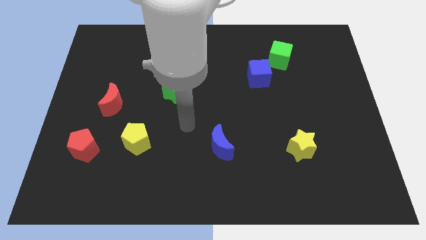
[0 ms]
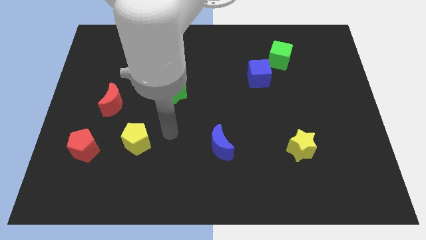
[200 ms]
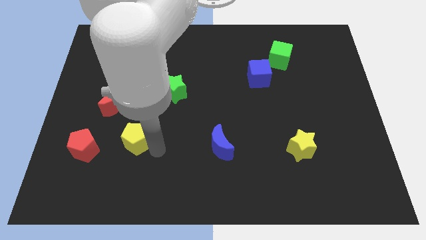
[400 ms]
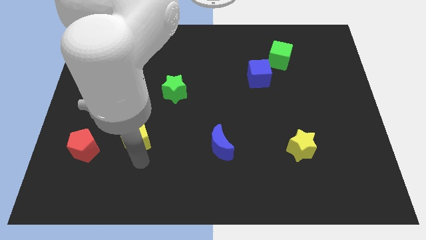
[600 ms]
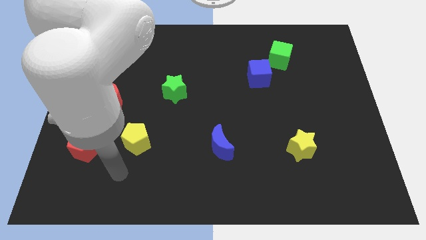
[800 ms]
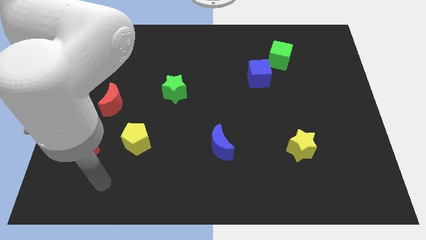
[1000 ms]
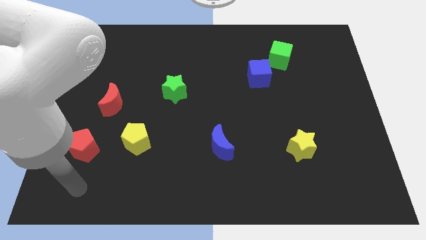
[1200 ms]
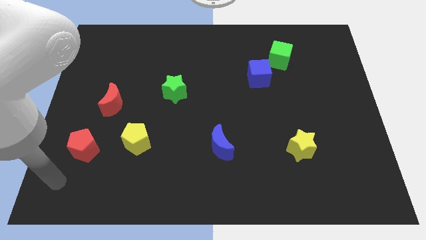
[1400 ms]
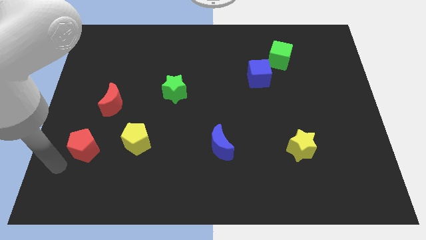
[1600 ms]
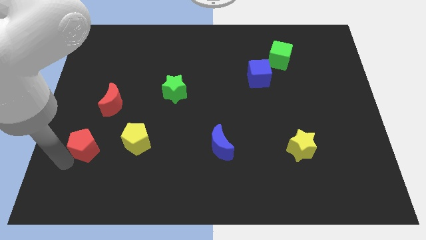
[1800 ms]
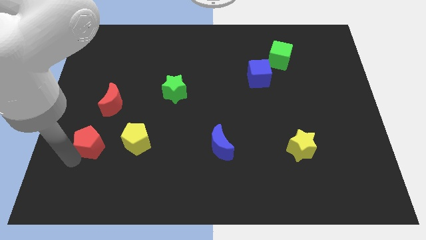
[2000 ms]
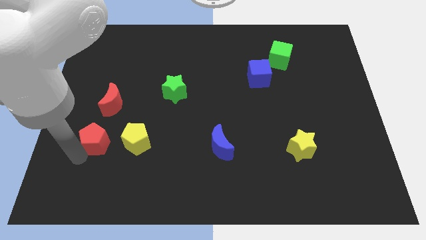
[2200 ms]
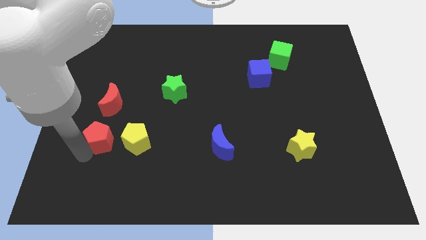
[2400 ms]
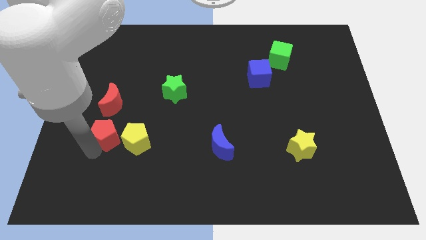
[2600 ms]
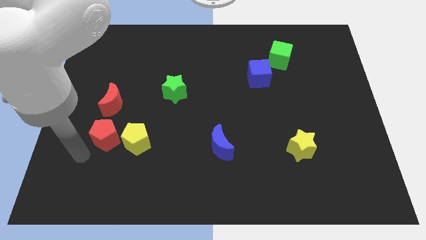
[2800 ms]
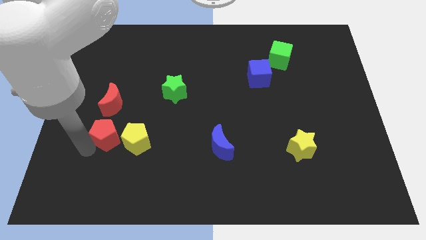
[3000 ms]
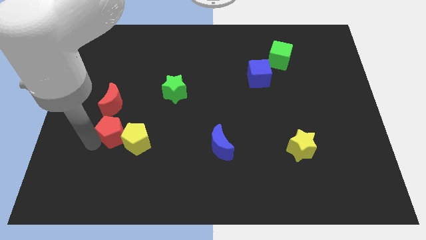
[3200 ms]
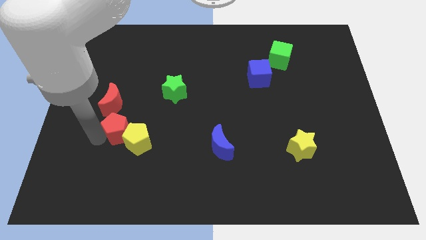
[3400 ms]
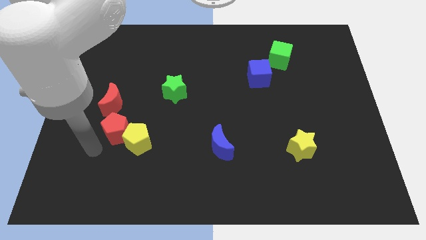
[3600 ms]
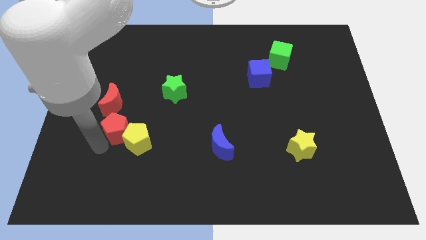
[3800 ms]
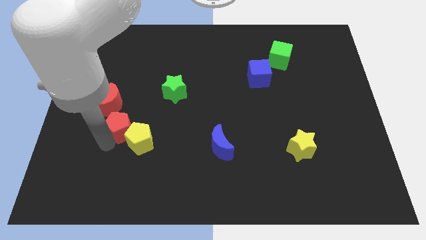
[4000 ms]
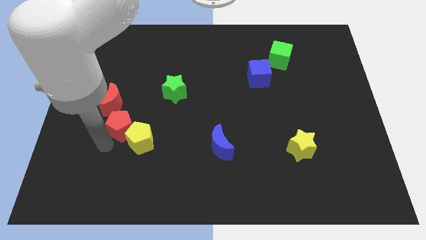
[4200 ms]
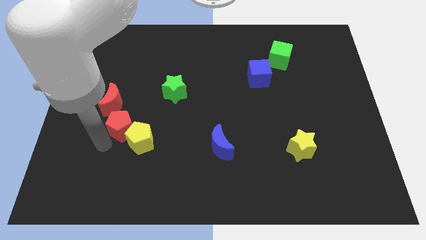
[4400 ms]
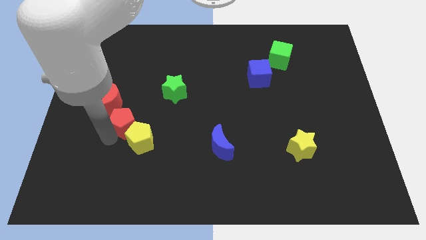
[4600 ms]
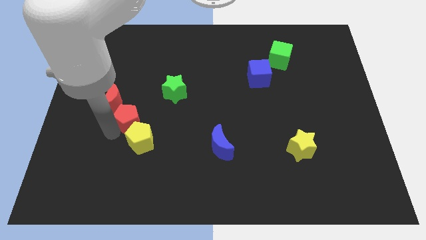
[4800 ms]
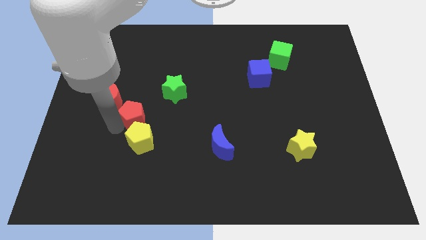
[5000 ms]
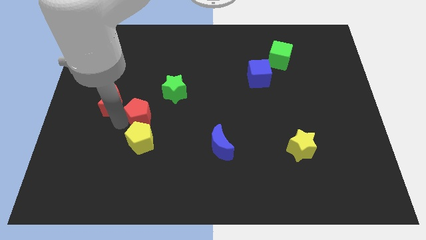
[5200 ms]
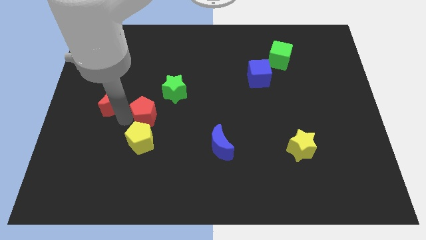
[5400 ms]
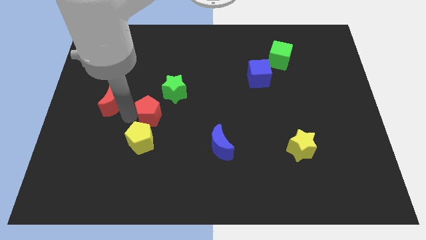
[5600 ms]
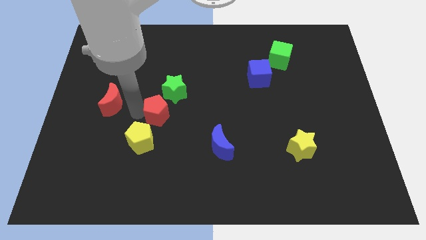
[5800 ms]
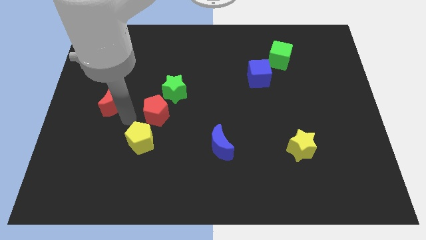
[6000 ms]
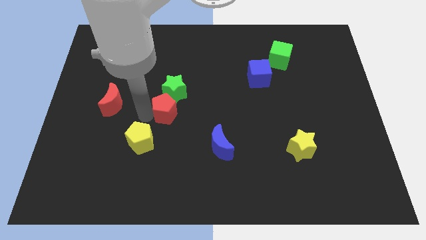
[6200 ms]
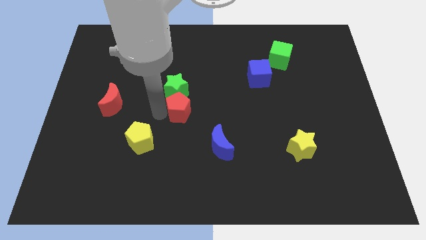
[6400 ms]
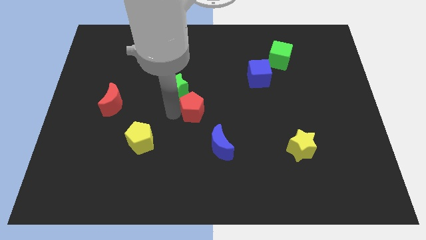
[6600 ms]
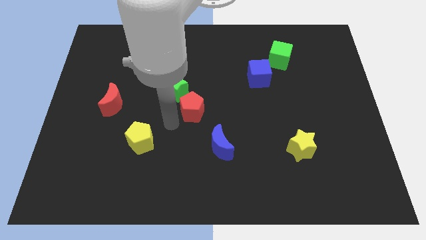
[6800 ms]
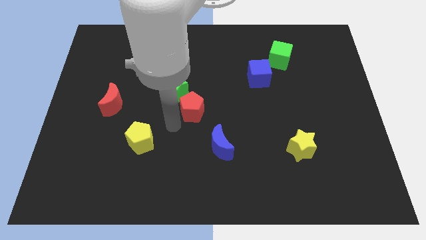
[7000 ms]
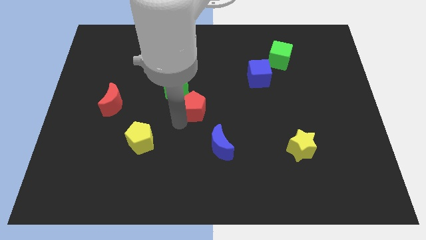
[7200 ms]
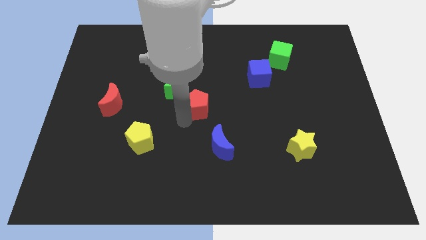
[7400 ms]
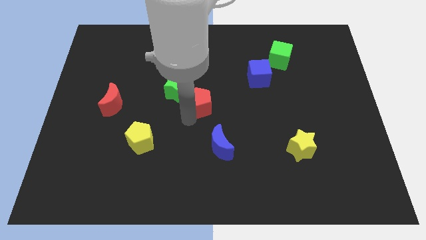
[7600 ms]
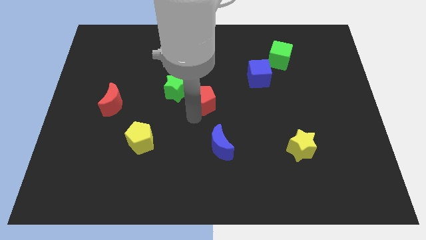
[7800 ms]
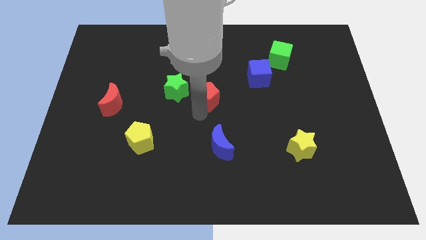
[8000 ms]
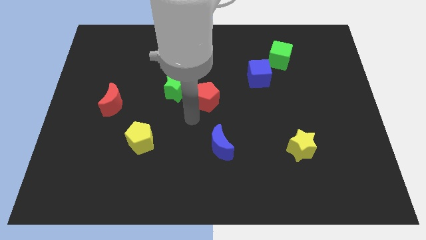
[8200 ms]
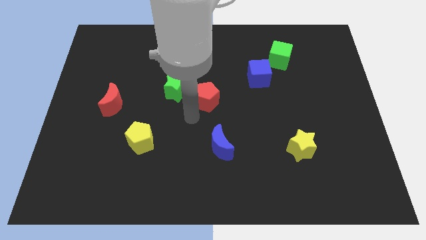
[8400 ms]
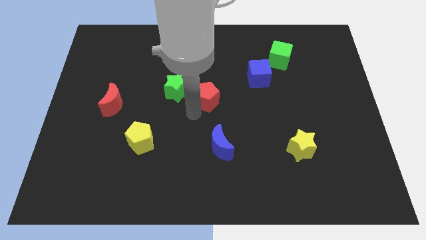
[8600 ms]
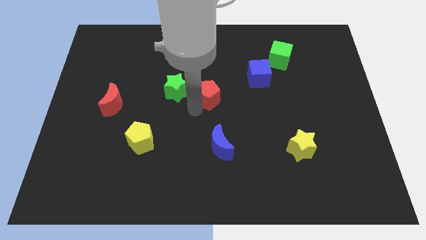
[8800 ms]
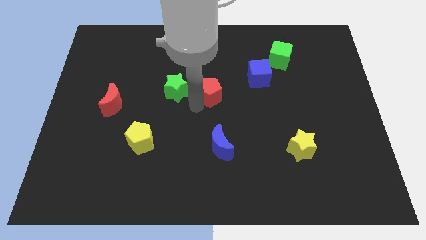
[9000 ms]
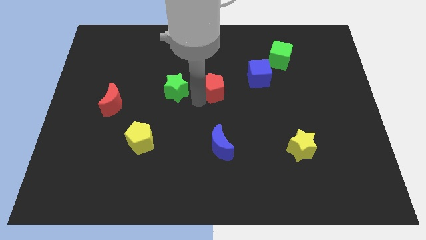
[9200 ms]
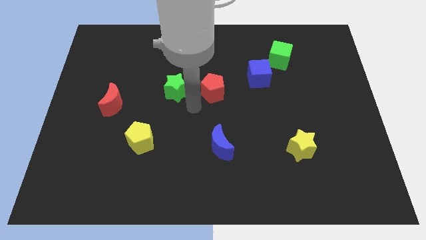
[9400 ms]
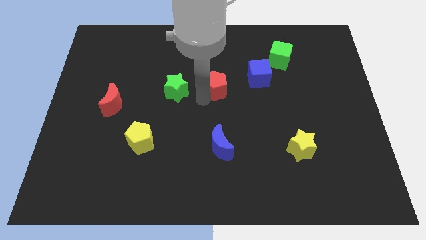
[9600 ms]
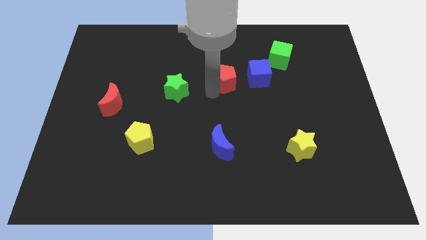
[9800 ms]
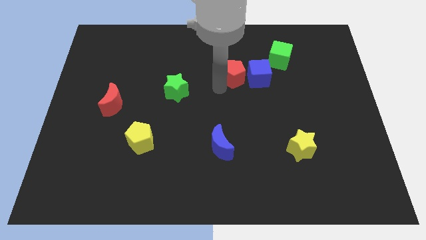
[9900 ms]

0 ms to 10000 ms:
push the red pentagon diagonally up and to the left of the blue cube

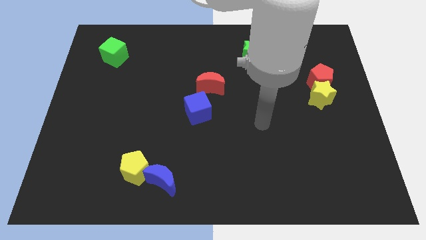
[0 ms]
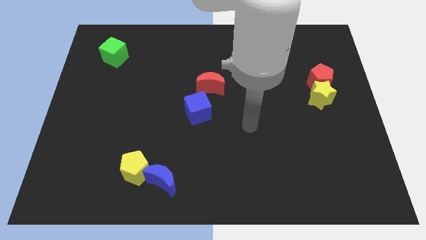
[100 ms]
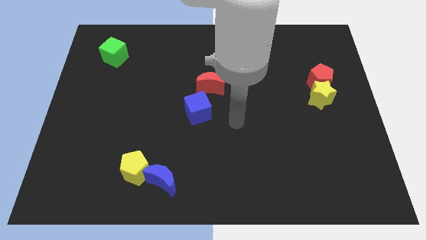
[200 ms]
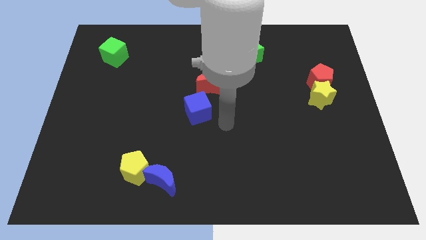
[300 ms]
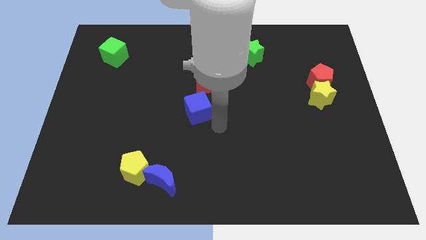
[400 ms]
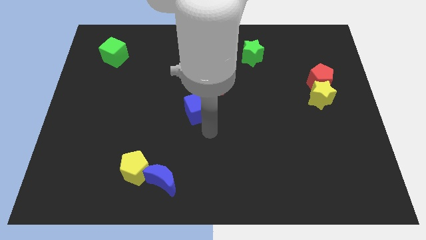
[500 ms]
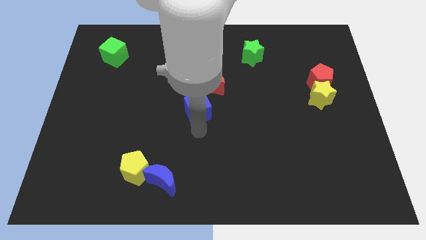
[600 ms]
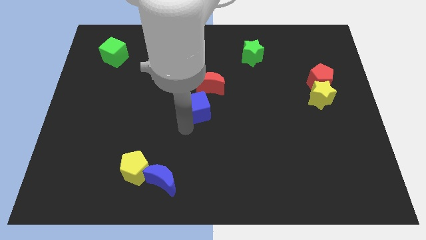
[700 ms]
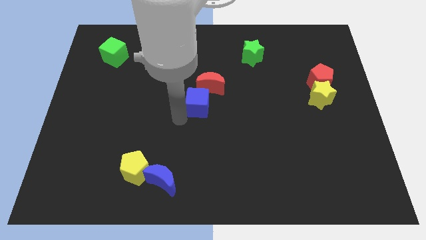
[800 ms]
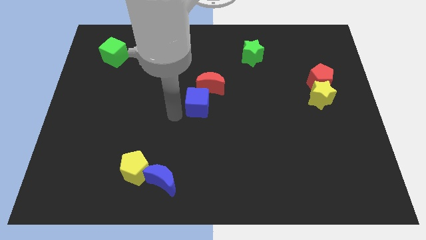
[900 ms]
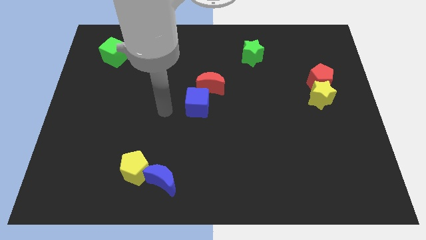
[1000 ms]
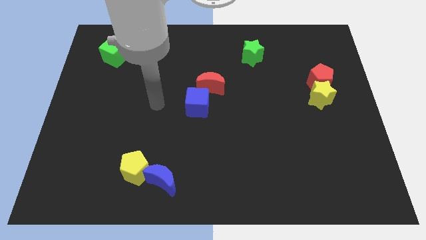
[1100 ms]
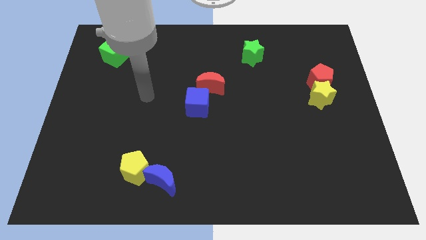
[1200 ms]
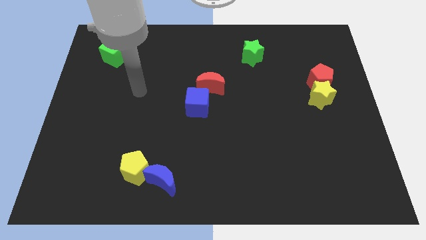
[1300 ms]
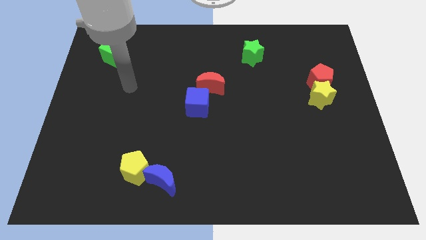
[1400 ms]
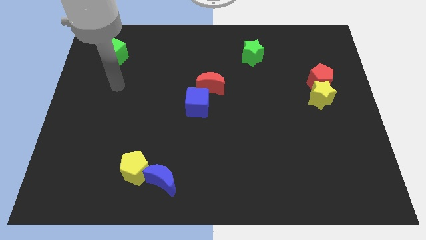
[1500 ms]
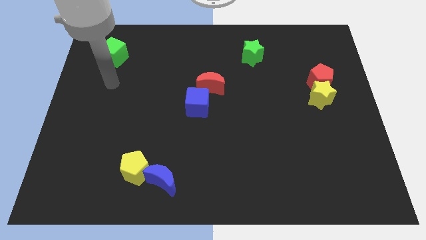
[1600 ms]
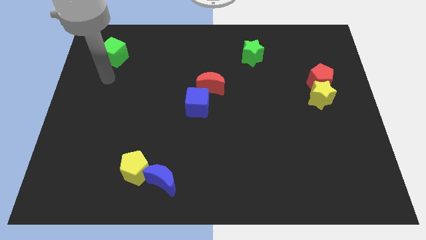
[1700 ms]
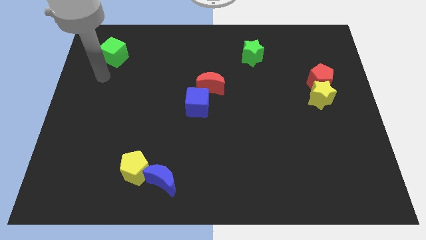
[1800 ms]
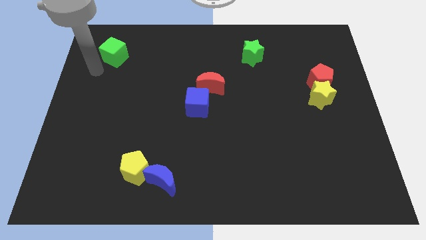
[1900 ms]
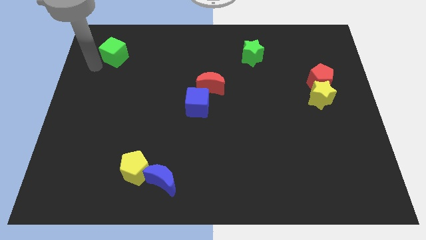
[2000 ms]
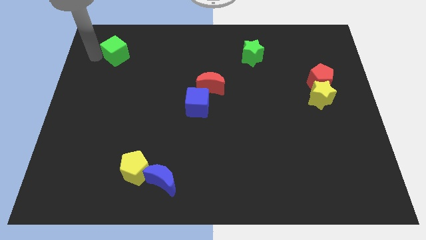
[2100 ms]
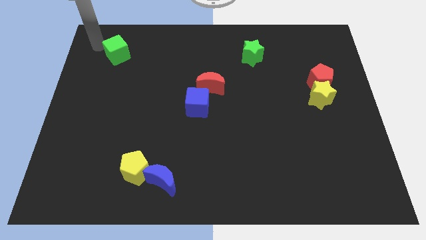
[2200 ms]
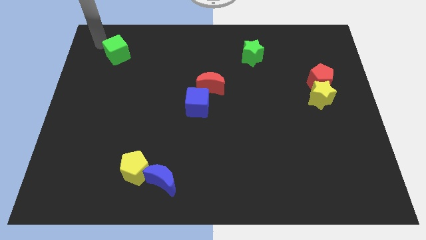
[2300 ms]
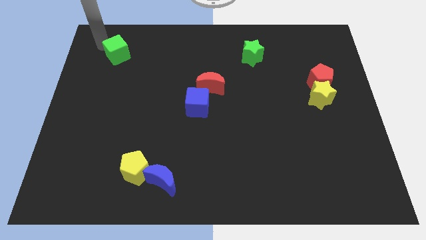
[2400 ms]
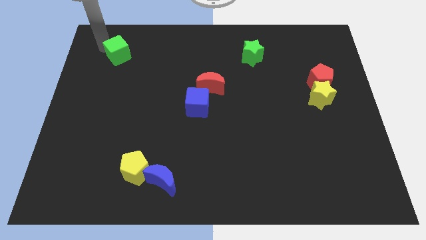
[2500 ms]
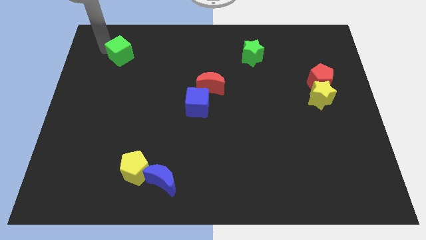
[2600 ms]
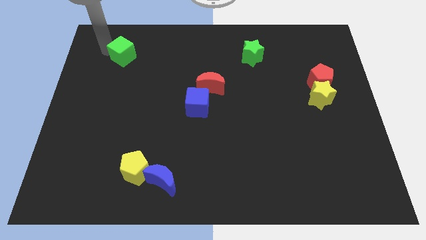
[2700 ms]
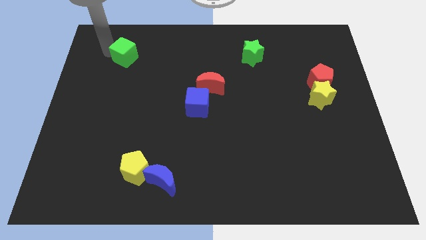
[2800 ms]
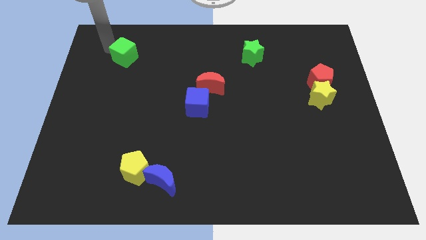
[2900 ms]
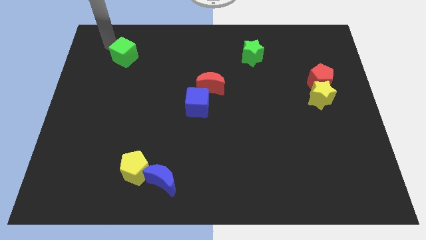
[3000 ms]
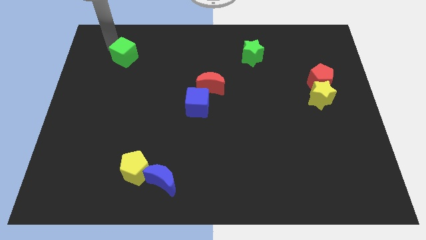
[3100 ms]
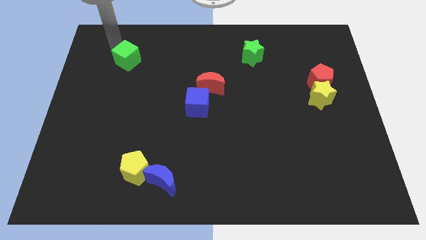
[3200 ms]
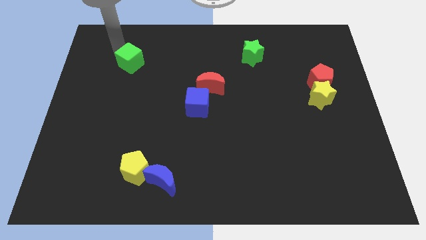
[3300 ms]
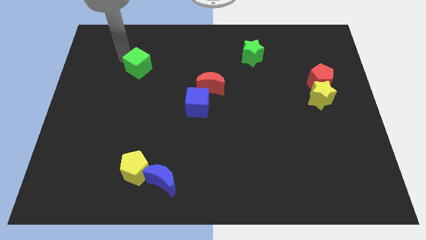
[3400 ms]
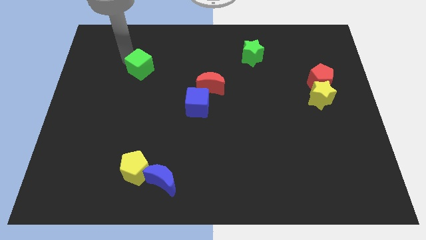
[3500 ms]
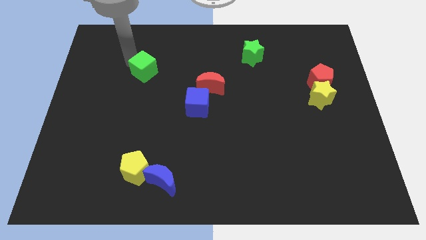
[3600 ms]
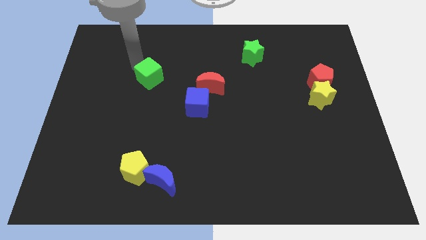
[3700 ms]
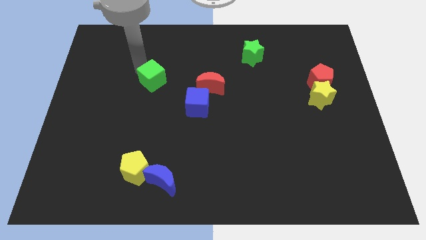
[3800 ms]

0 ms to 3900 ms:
put the green cube just left of the red moon
